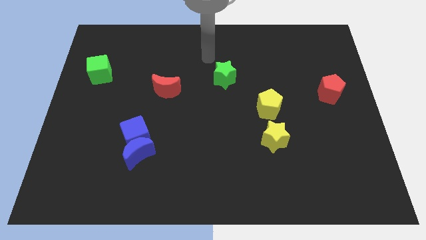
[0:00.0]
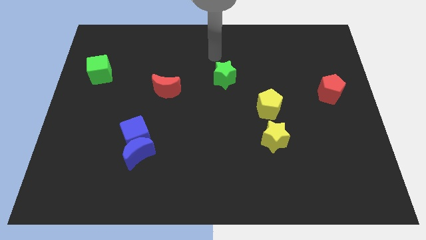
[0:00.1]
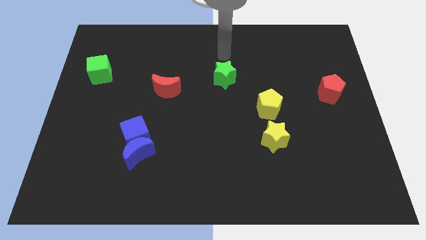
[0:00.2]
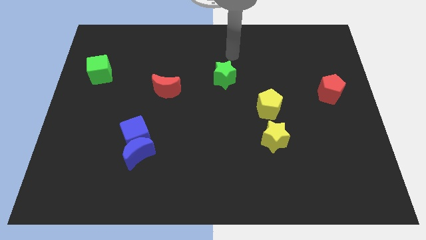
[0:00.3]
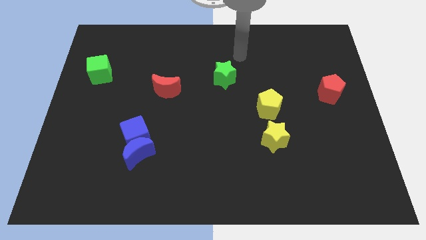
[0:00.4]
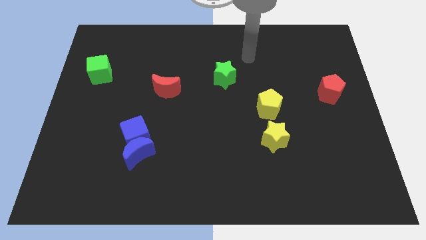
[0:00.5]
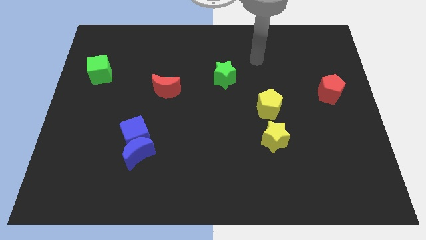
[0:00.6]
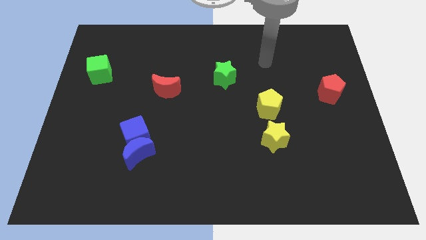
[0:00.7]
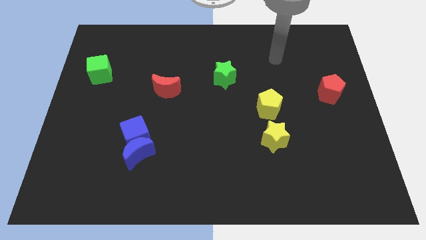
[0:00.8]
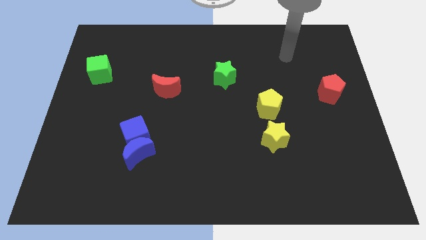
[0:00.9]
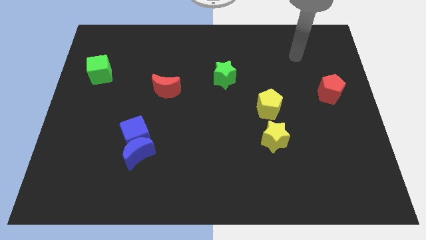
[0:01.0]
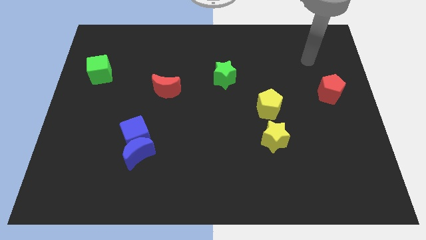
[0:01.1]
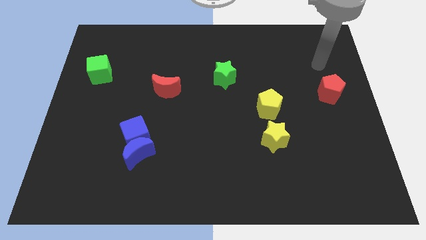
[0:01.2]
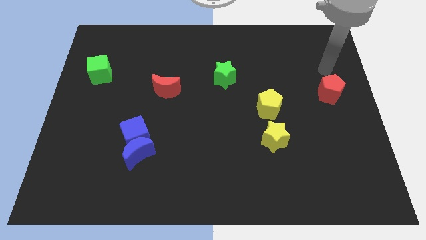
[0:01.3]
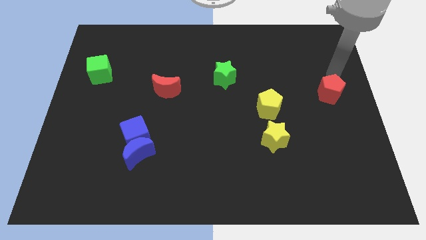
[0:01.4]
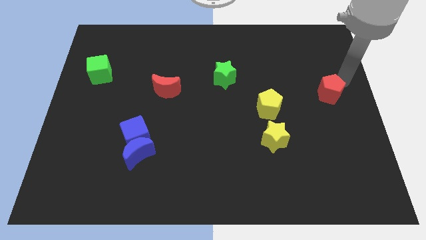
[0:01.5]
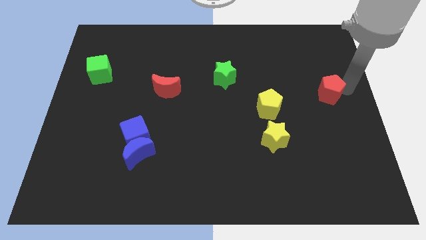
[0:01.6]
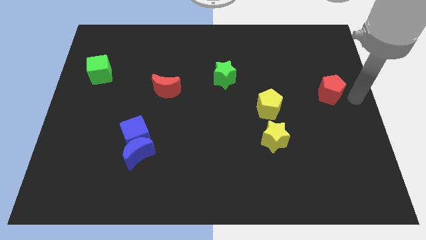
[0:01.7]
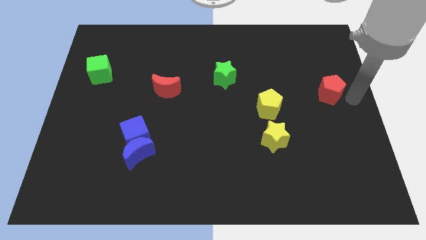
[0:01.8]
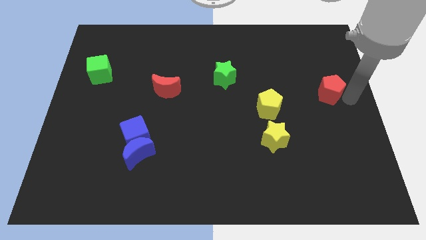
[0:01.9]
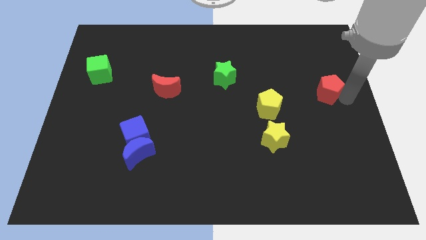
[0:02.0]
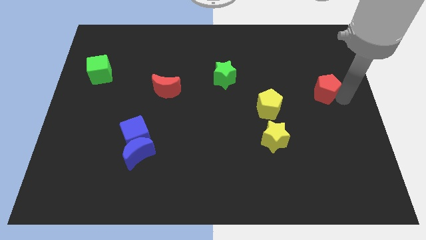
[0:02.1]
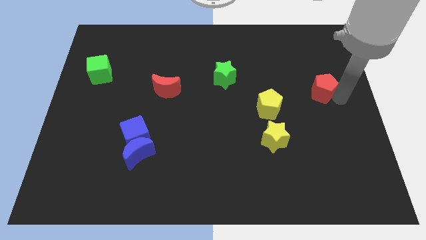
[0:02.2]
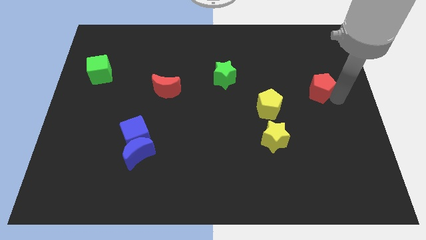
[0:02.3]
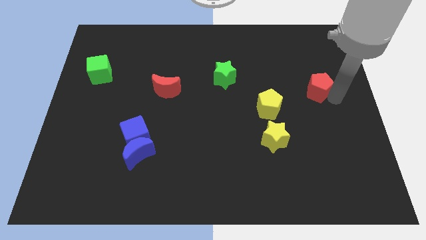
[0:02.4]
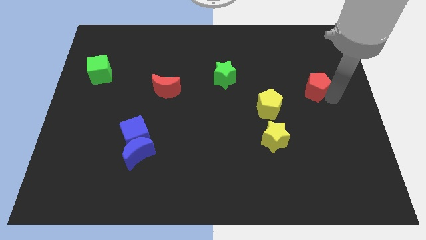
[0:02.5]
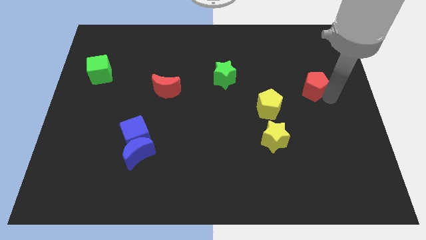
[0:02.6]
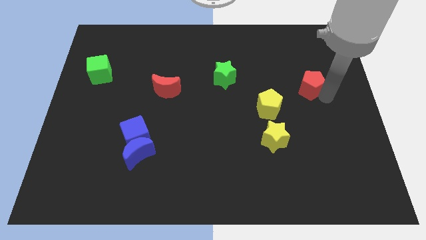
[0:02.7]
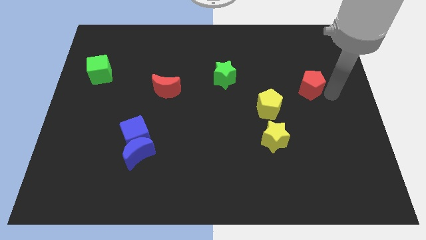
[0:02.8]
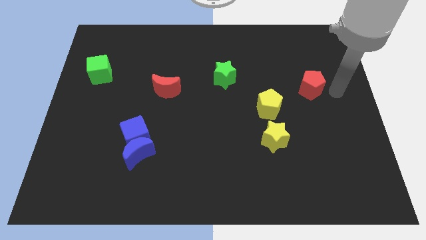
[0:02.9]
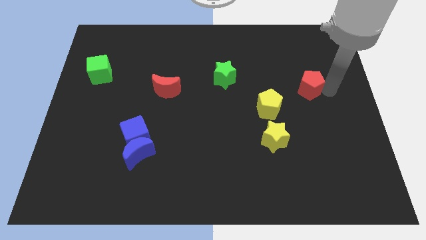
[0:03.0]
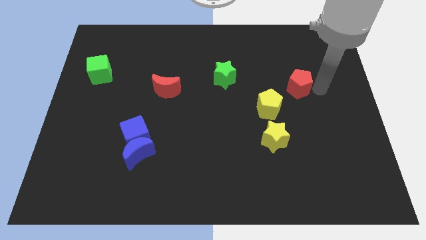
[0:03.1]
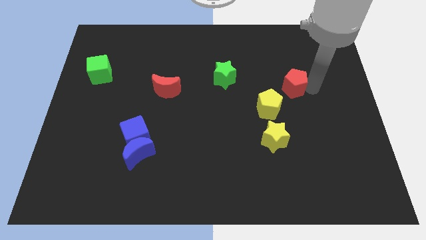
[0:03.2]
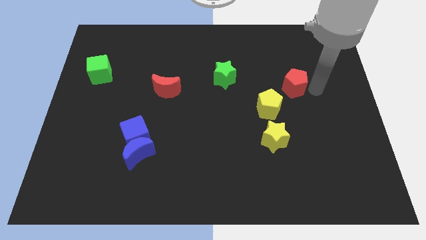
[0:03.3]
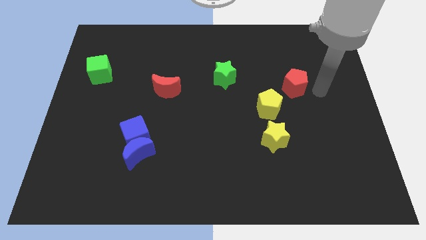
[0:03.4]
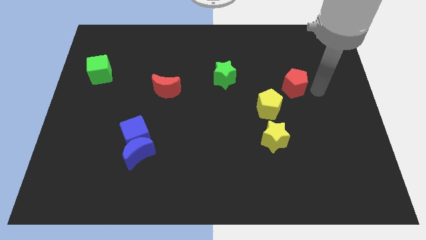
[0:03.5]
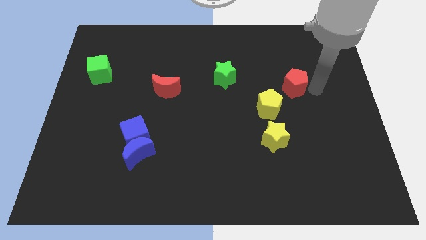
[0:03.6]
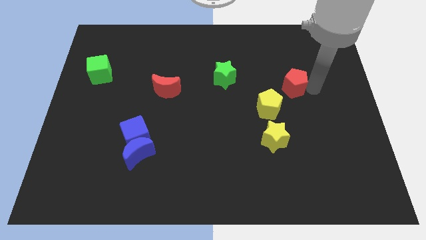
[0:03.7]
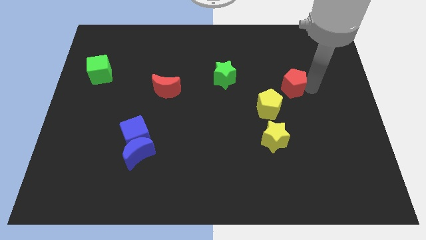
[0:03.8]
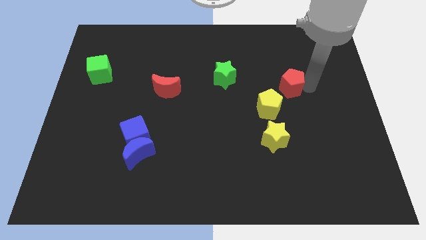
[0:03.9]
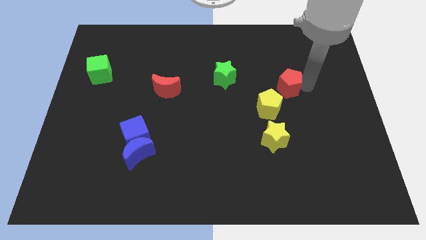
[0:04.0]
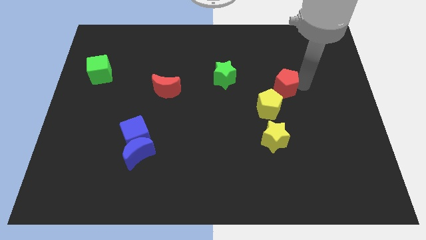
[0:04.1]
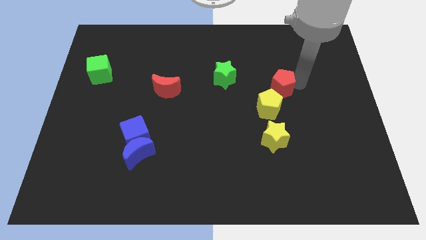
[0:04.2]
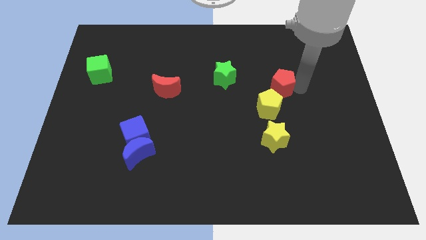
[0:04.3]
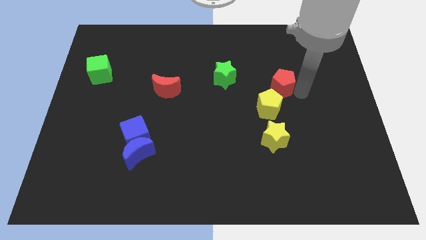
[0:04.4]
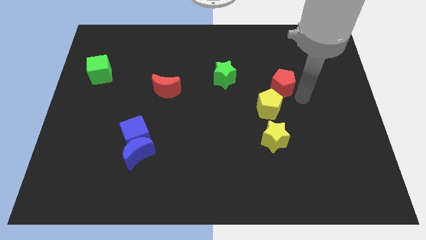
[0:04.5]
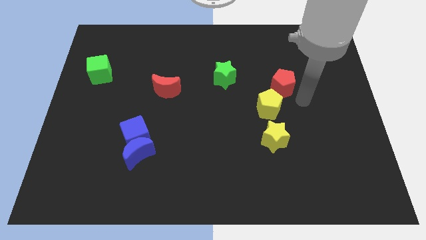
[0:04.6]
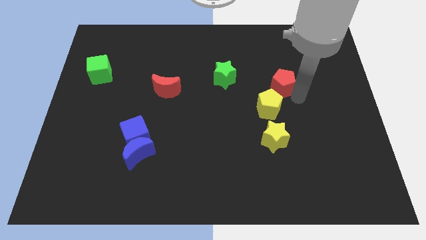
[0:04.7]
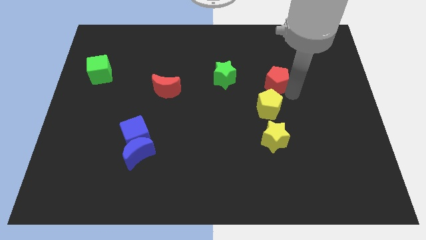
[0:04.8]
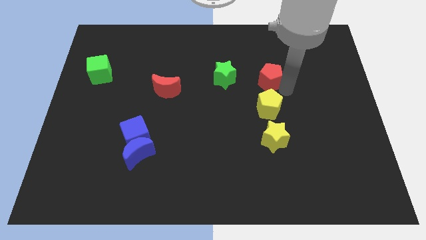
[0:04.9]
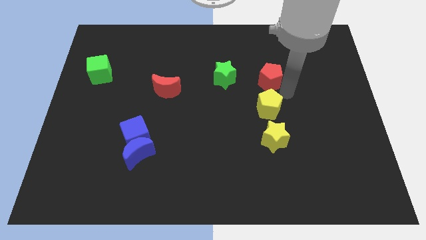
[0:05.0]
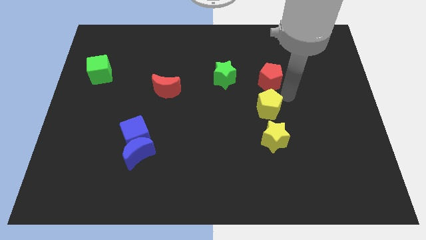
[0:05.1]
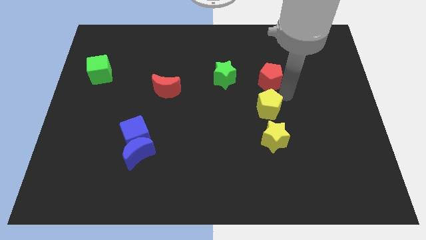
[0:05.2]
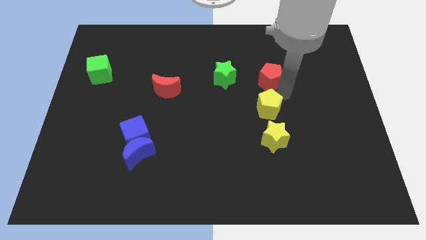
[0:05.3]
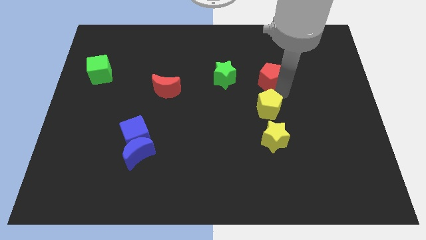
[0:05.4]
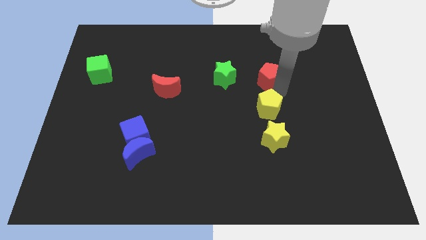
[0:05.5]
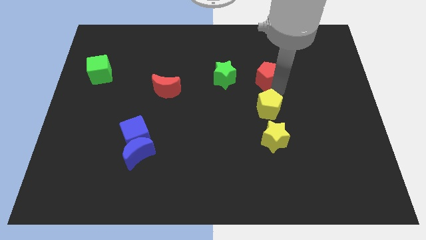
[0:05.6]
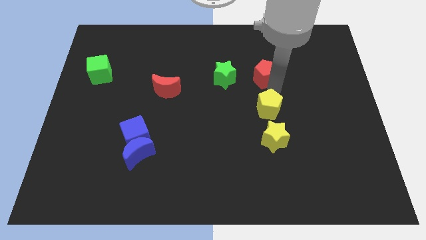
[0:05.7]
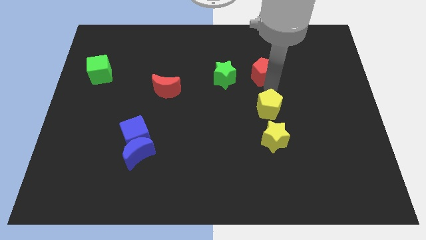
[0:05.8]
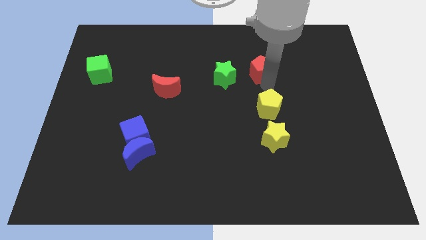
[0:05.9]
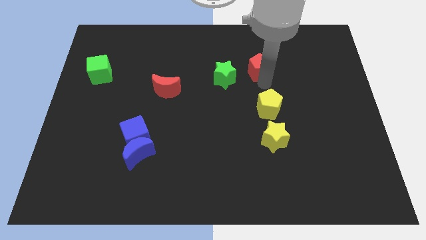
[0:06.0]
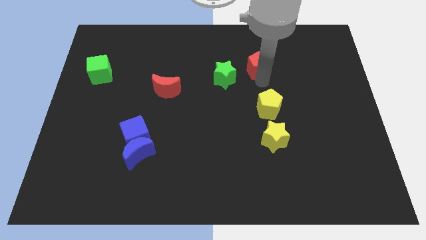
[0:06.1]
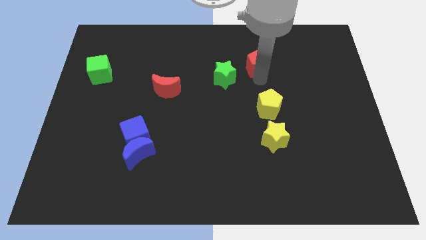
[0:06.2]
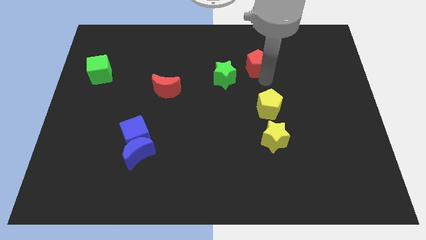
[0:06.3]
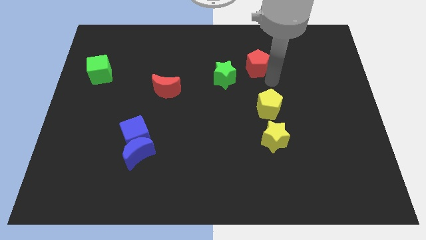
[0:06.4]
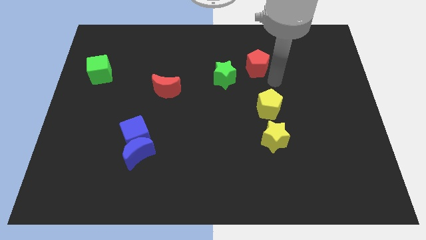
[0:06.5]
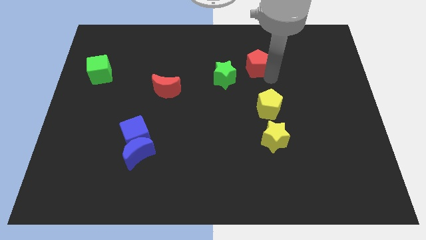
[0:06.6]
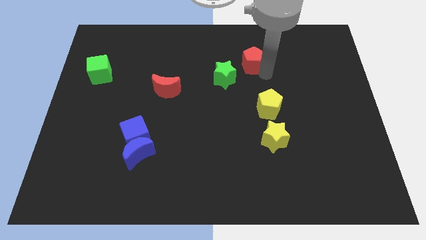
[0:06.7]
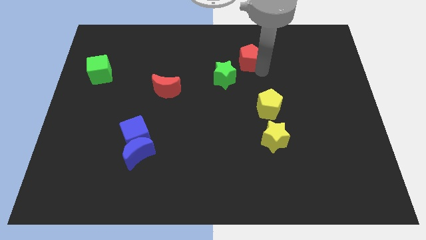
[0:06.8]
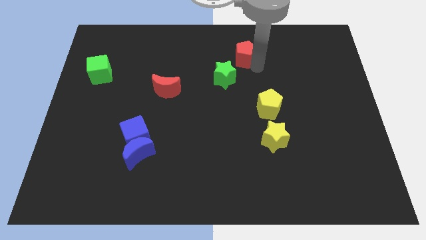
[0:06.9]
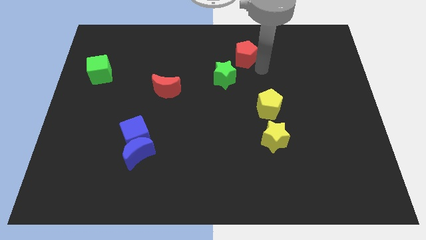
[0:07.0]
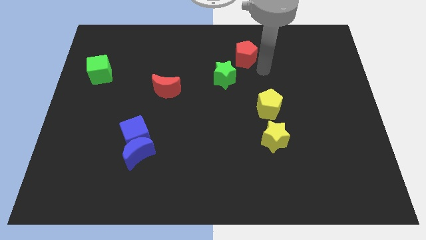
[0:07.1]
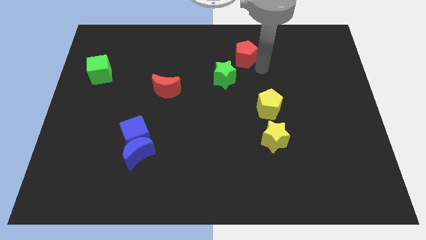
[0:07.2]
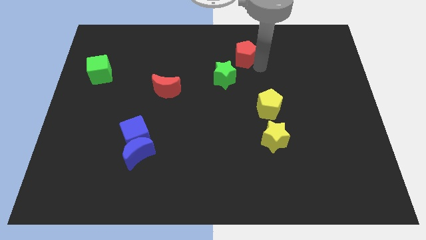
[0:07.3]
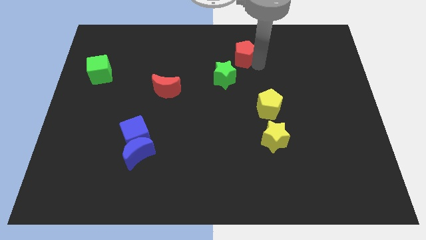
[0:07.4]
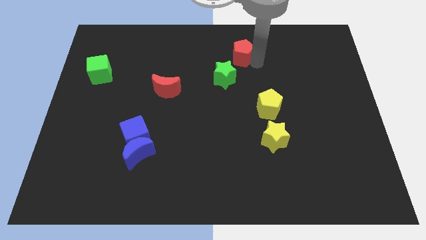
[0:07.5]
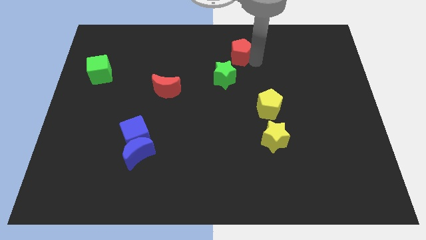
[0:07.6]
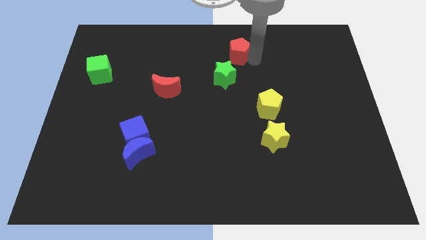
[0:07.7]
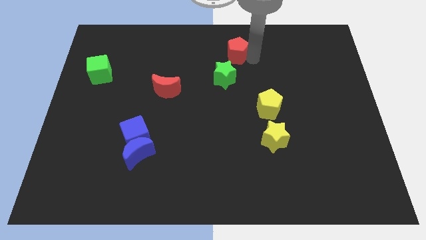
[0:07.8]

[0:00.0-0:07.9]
slide the red pentagon to the towards your base

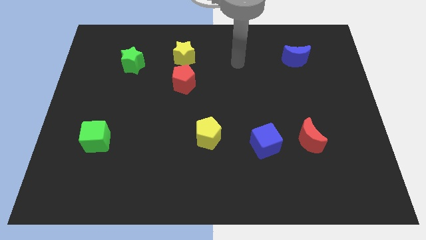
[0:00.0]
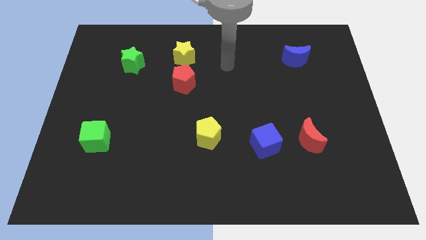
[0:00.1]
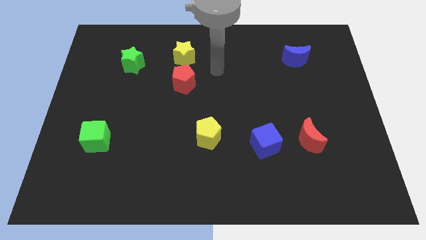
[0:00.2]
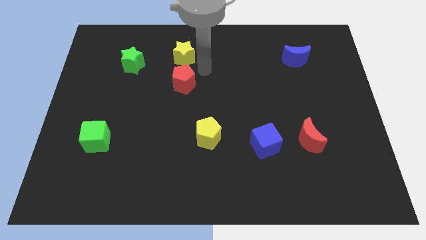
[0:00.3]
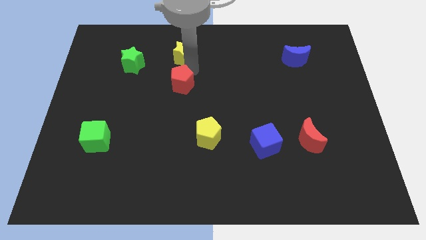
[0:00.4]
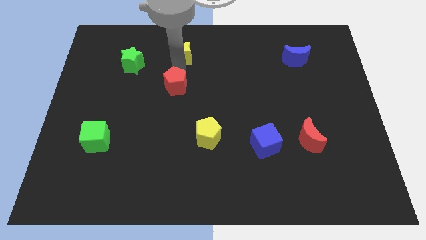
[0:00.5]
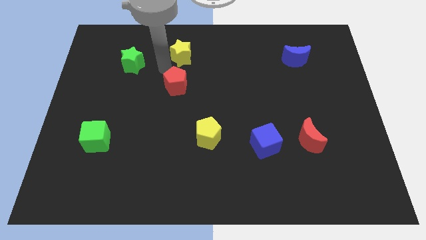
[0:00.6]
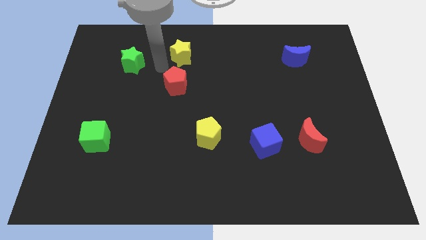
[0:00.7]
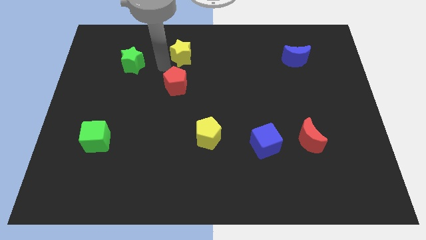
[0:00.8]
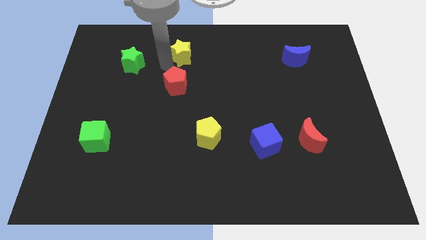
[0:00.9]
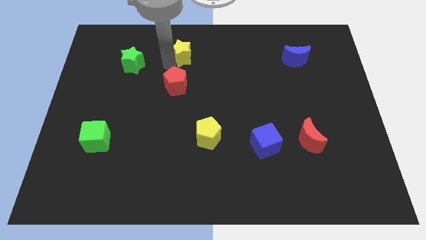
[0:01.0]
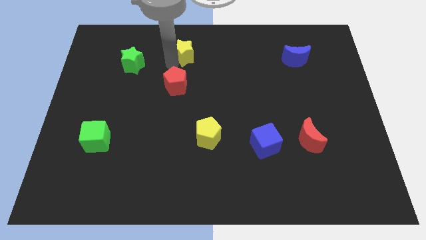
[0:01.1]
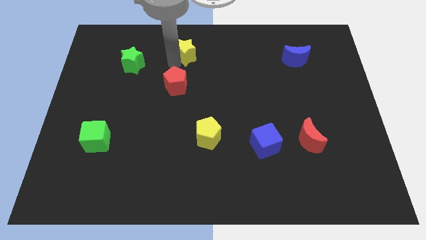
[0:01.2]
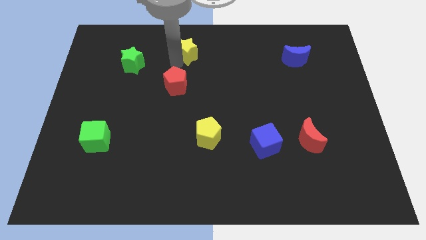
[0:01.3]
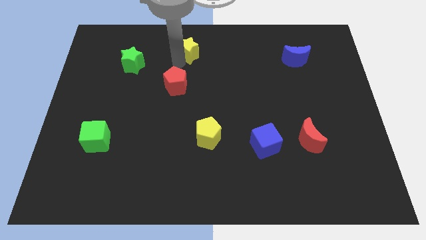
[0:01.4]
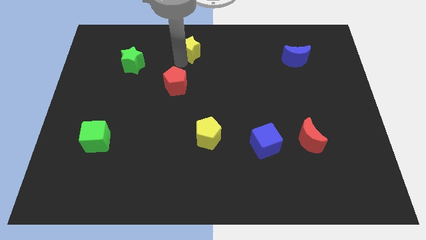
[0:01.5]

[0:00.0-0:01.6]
move the yellow star to the top
